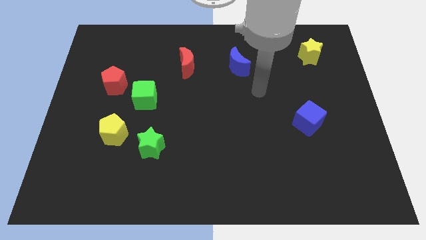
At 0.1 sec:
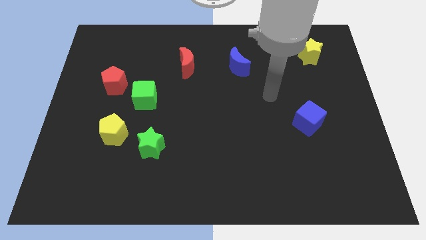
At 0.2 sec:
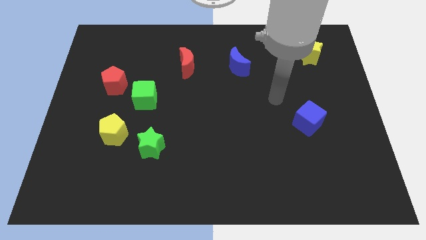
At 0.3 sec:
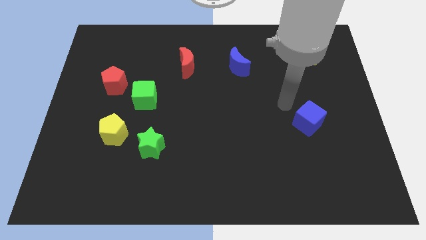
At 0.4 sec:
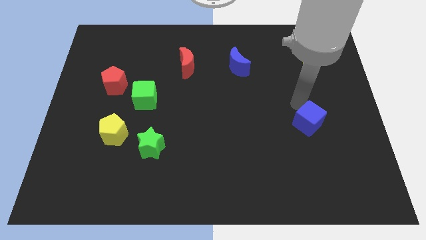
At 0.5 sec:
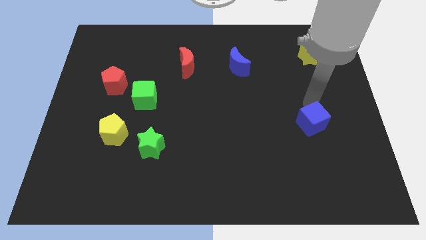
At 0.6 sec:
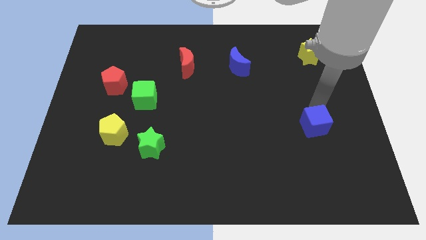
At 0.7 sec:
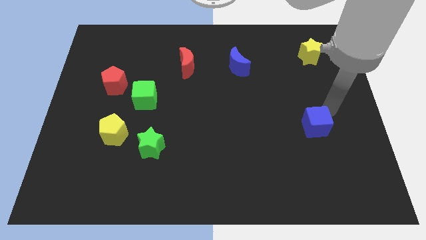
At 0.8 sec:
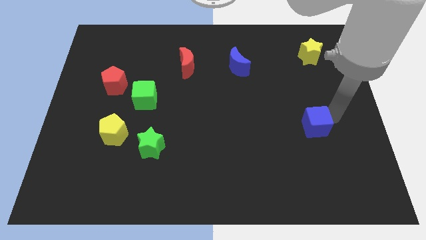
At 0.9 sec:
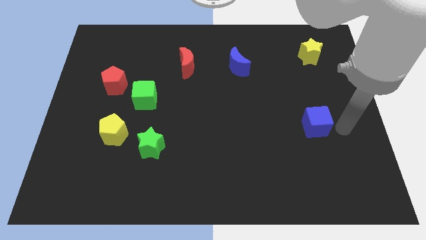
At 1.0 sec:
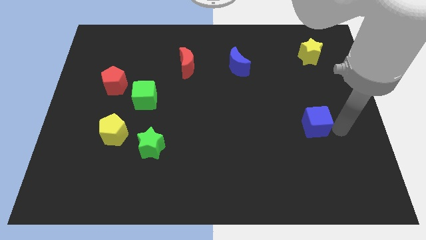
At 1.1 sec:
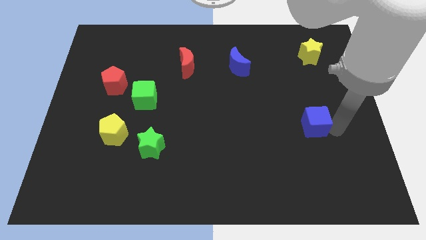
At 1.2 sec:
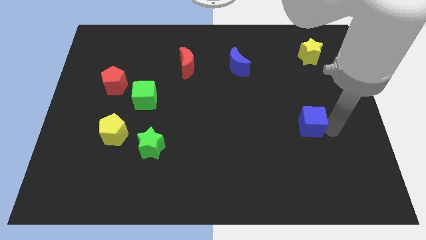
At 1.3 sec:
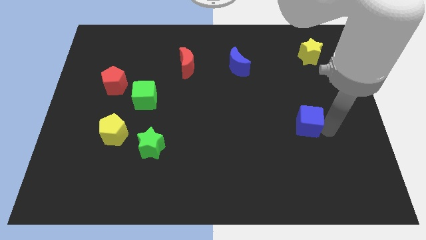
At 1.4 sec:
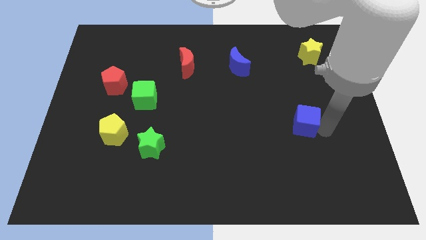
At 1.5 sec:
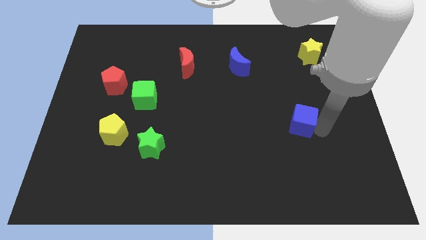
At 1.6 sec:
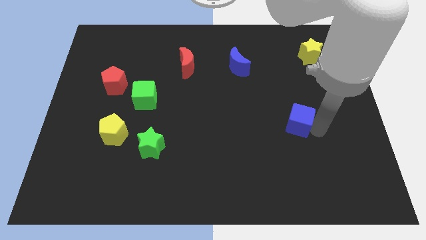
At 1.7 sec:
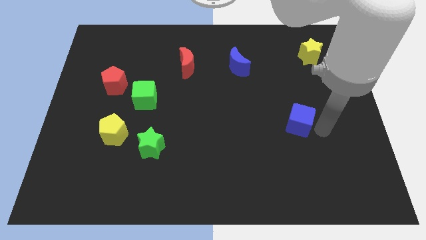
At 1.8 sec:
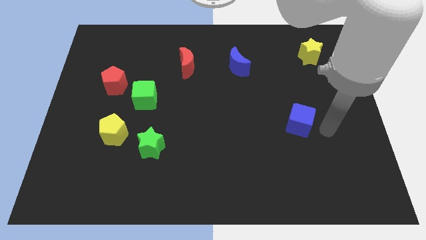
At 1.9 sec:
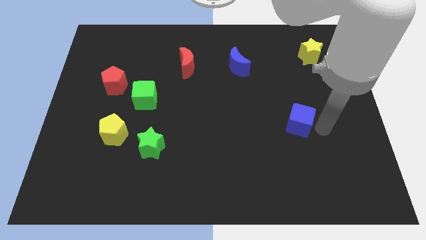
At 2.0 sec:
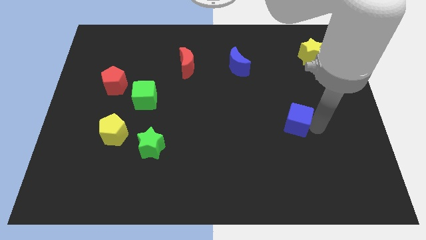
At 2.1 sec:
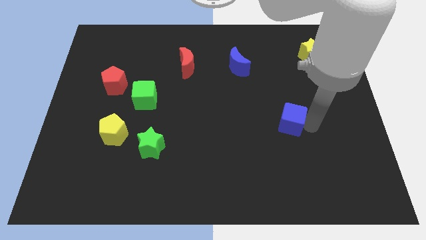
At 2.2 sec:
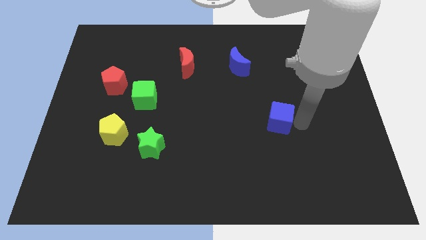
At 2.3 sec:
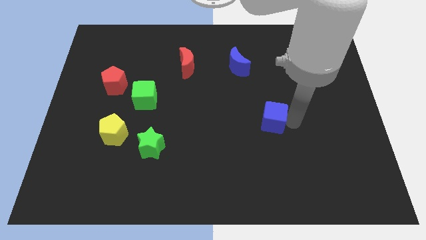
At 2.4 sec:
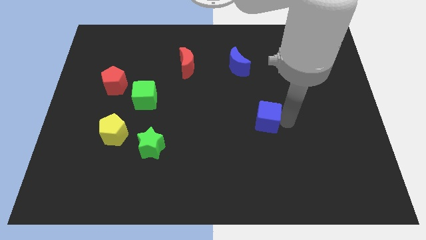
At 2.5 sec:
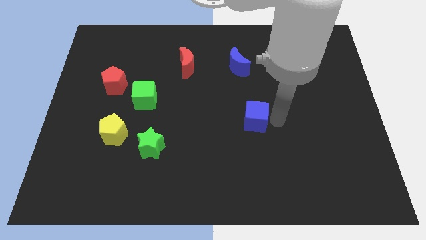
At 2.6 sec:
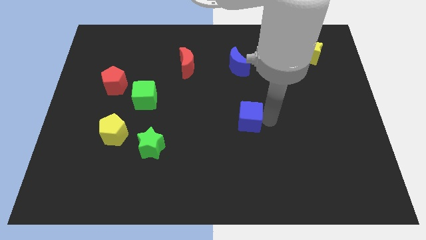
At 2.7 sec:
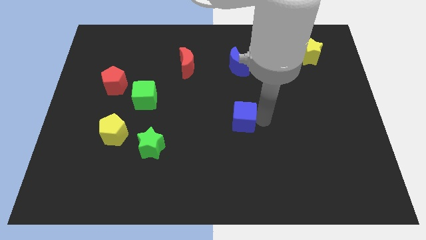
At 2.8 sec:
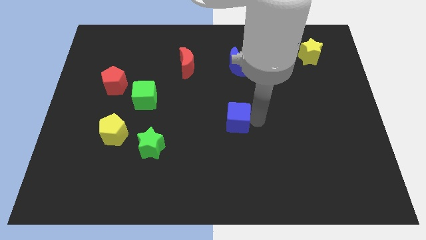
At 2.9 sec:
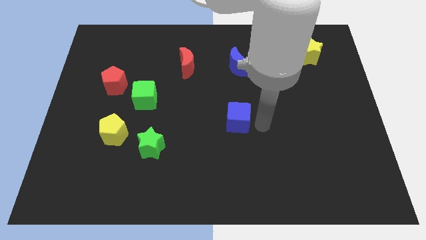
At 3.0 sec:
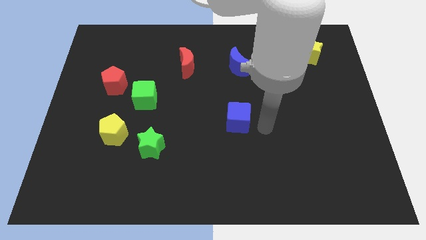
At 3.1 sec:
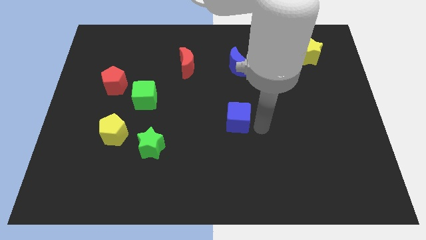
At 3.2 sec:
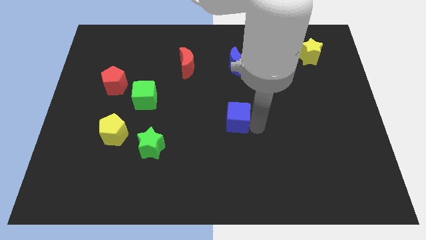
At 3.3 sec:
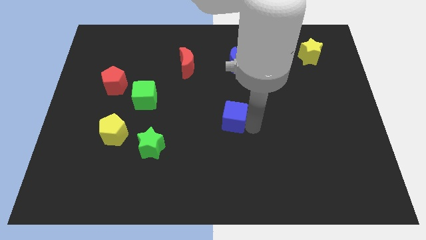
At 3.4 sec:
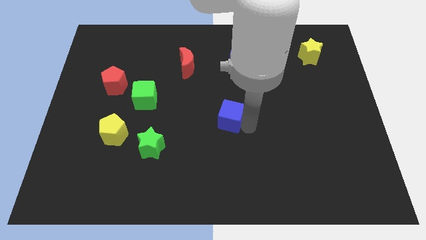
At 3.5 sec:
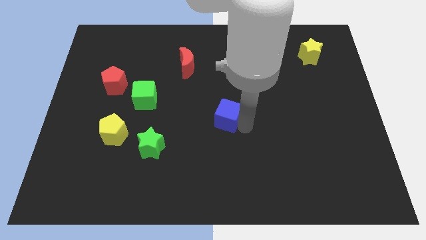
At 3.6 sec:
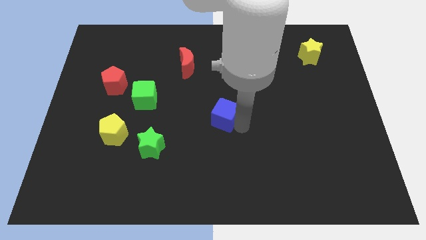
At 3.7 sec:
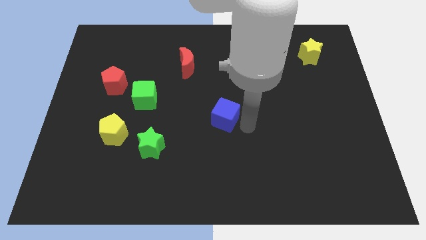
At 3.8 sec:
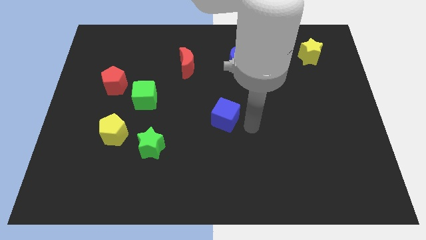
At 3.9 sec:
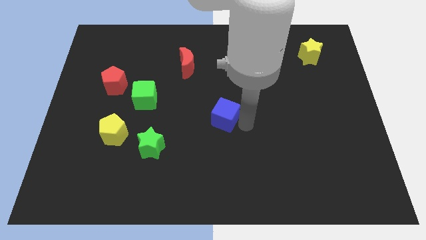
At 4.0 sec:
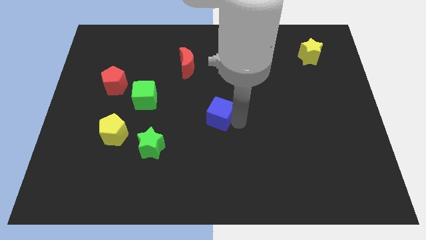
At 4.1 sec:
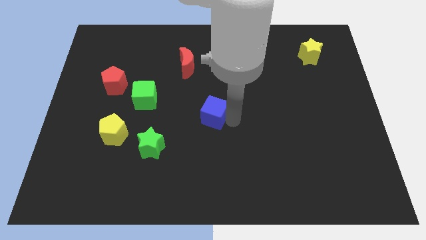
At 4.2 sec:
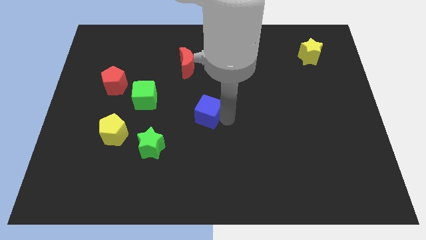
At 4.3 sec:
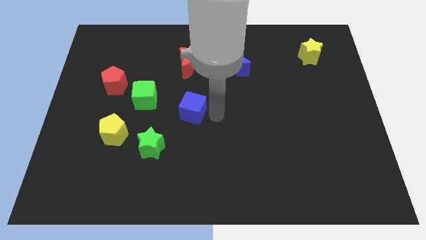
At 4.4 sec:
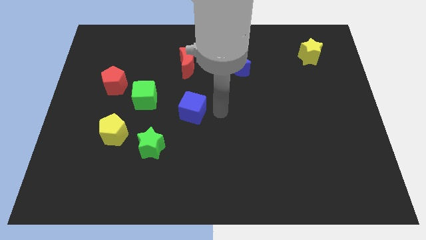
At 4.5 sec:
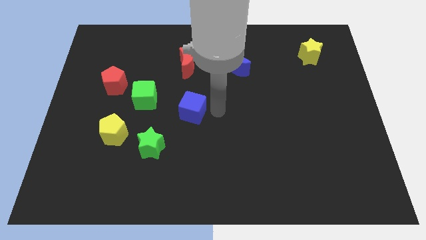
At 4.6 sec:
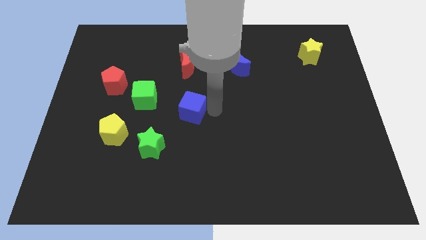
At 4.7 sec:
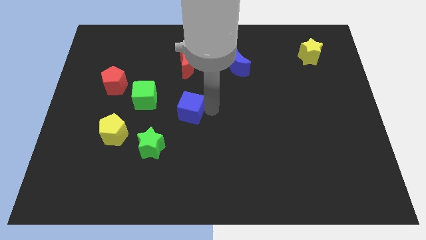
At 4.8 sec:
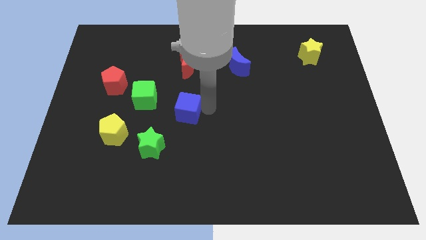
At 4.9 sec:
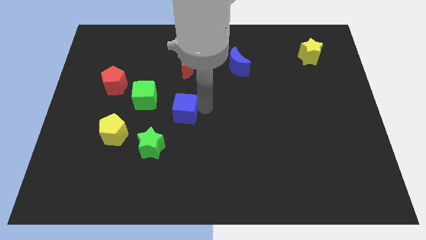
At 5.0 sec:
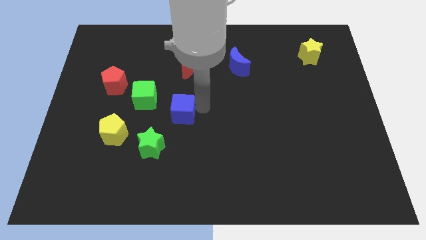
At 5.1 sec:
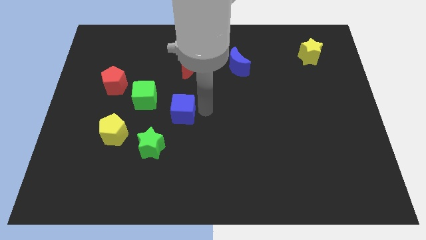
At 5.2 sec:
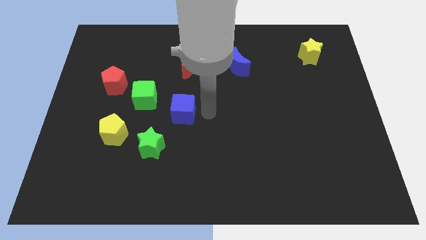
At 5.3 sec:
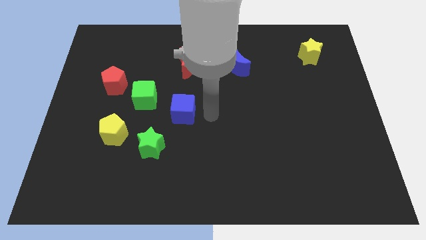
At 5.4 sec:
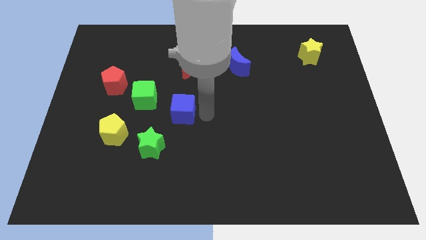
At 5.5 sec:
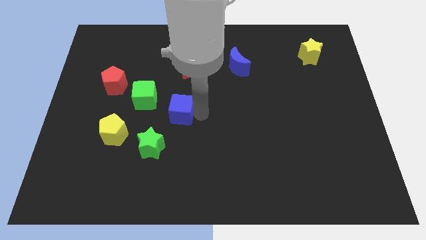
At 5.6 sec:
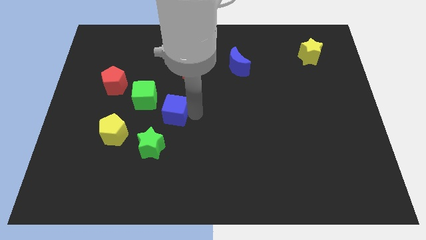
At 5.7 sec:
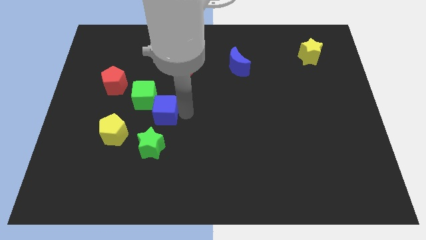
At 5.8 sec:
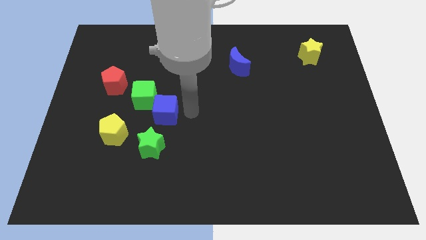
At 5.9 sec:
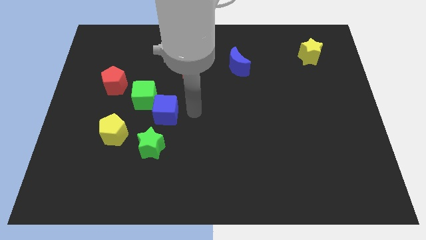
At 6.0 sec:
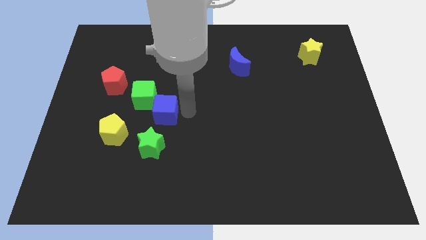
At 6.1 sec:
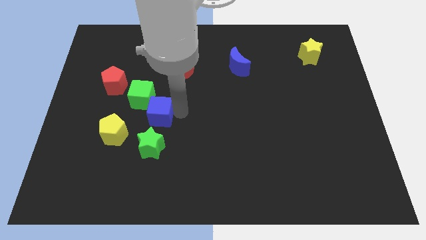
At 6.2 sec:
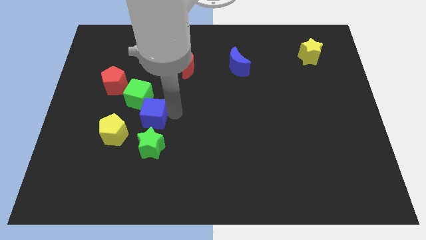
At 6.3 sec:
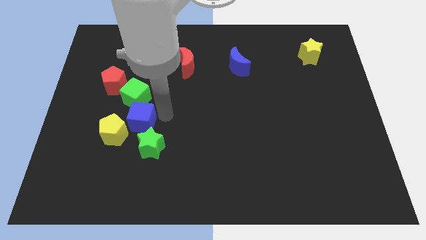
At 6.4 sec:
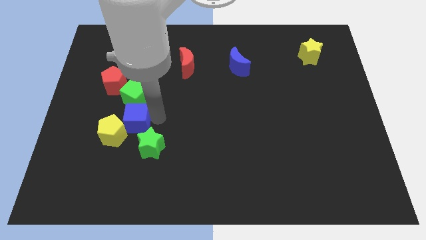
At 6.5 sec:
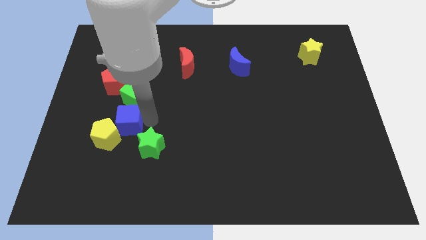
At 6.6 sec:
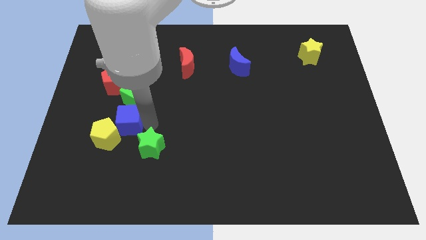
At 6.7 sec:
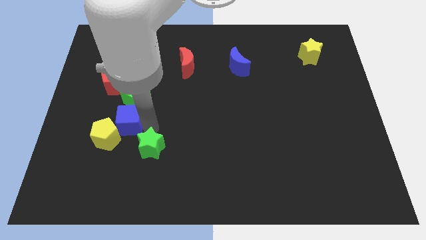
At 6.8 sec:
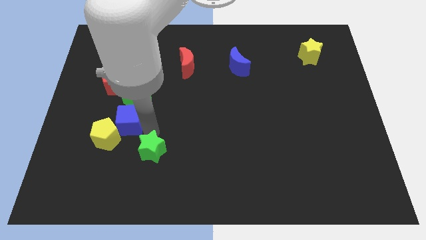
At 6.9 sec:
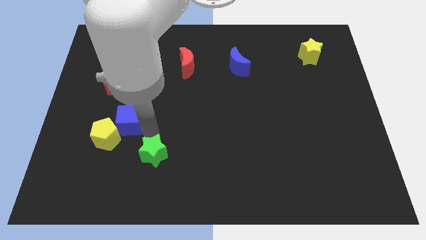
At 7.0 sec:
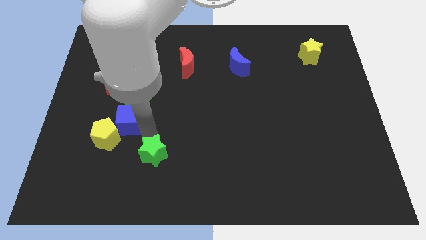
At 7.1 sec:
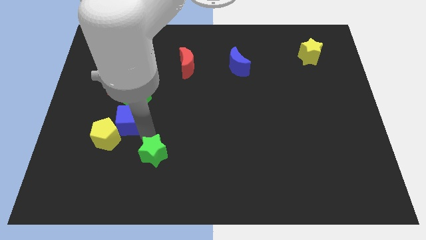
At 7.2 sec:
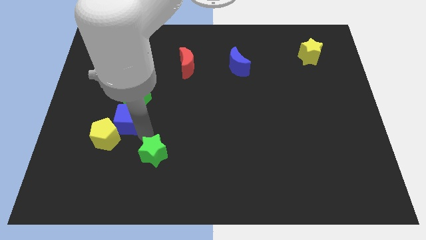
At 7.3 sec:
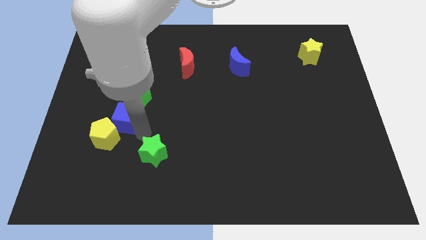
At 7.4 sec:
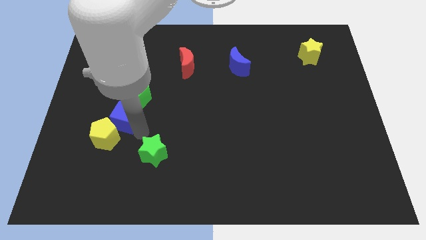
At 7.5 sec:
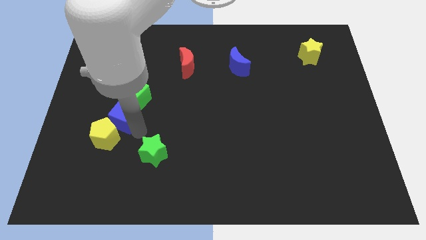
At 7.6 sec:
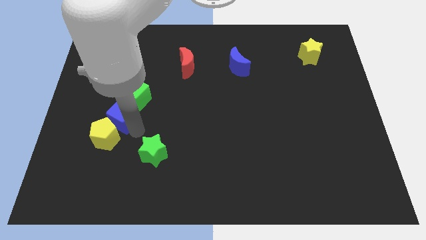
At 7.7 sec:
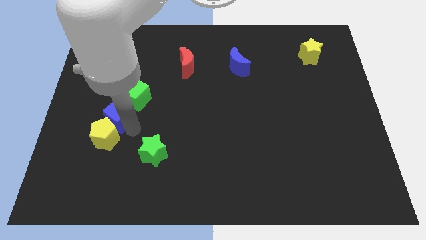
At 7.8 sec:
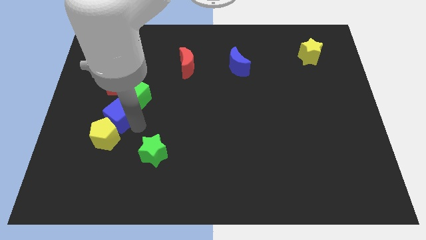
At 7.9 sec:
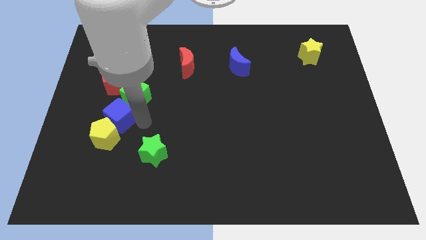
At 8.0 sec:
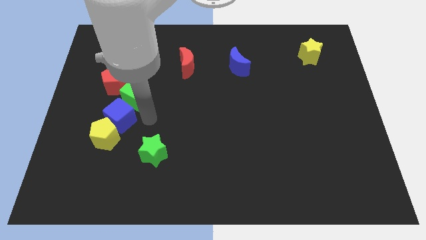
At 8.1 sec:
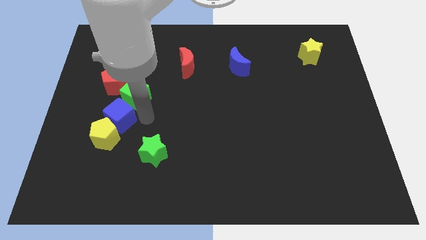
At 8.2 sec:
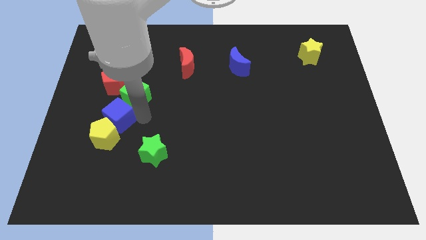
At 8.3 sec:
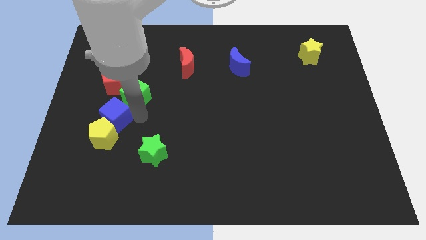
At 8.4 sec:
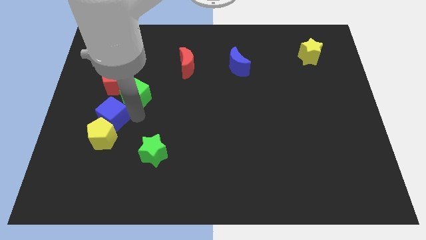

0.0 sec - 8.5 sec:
push the blue cube to the top left side of the yellow pentagon
